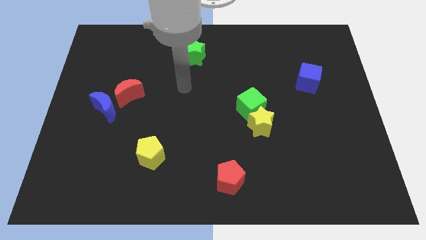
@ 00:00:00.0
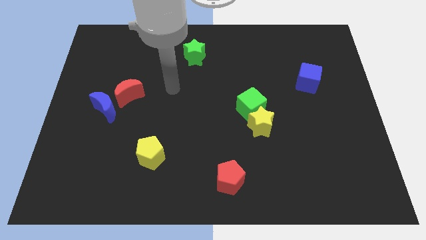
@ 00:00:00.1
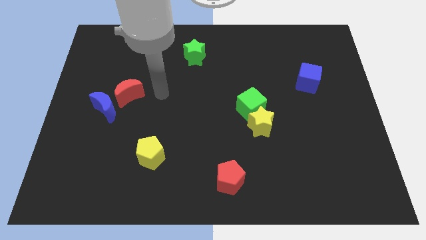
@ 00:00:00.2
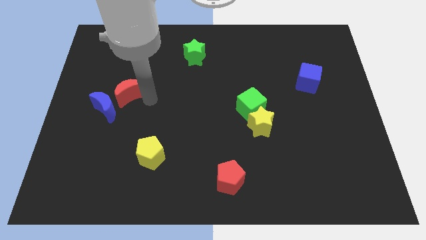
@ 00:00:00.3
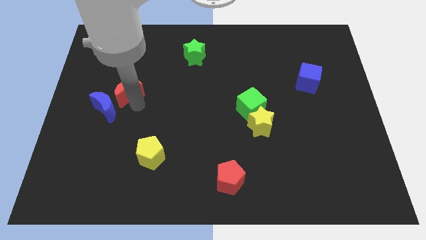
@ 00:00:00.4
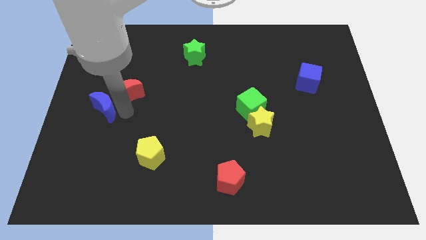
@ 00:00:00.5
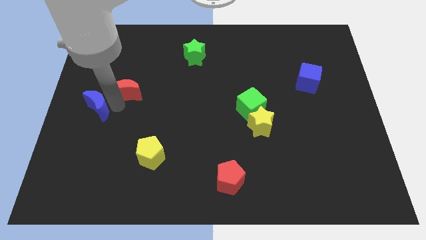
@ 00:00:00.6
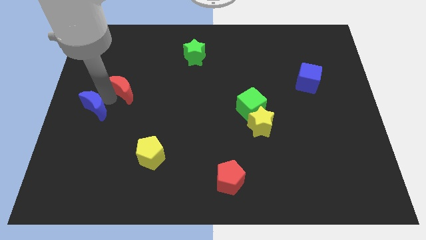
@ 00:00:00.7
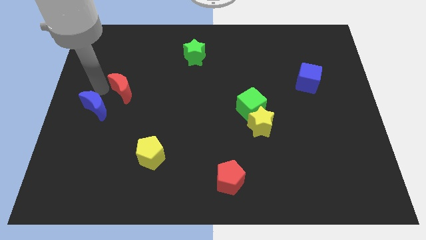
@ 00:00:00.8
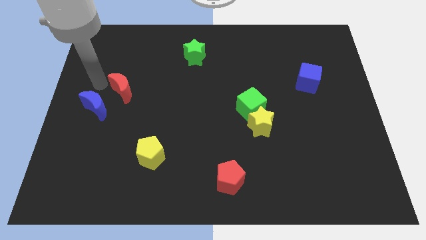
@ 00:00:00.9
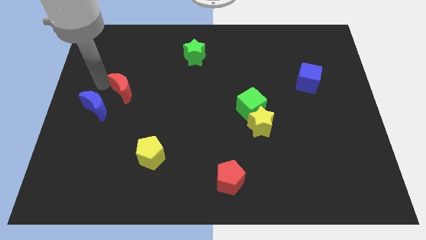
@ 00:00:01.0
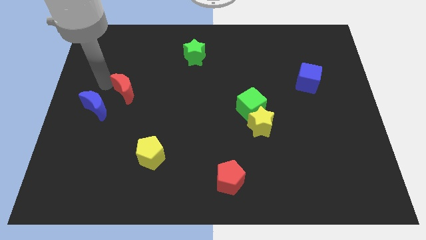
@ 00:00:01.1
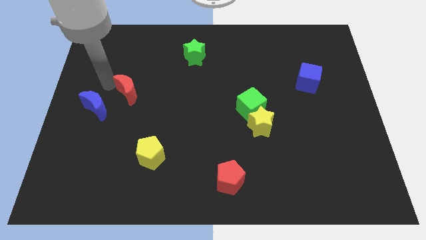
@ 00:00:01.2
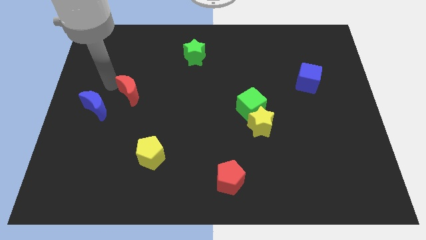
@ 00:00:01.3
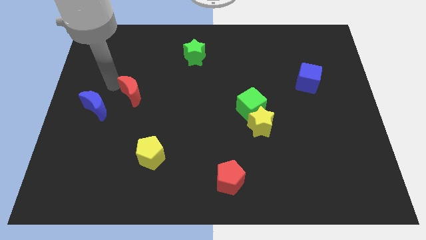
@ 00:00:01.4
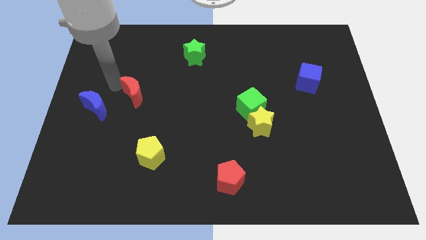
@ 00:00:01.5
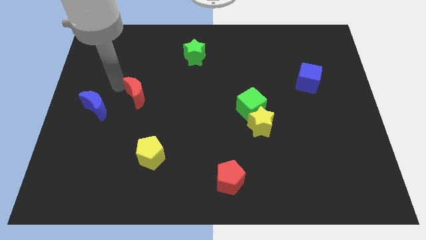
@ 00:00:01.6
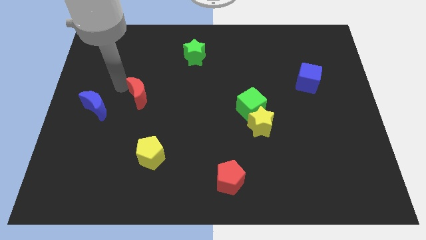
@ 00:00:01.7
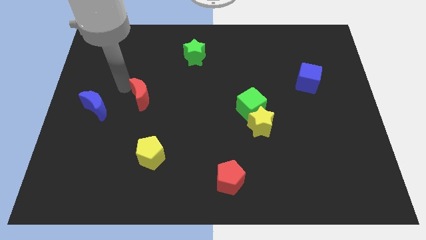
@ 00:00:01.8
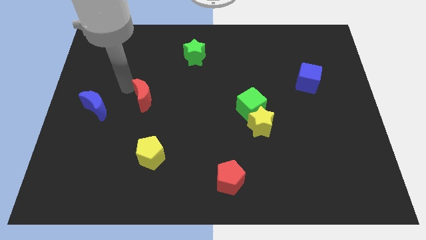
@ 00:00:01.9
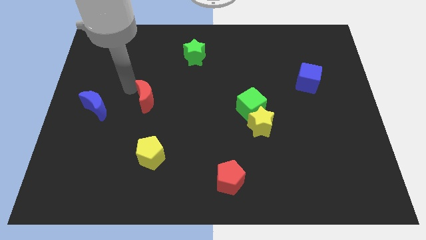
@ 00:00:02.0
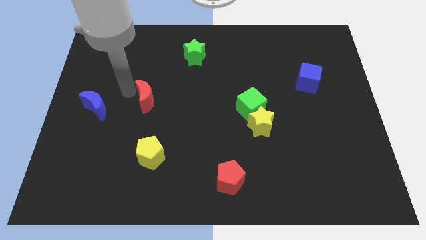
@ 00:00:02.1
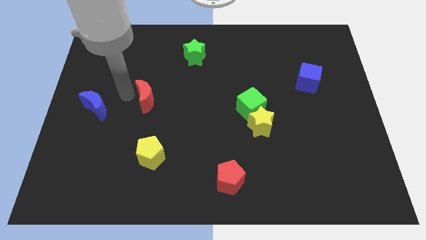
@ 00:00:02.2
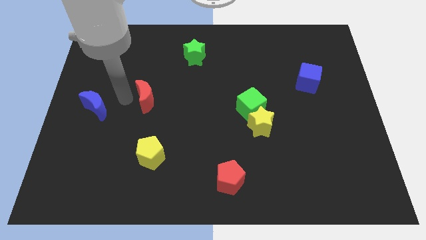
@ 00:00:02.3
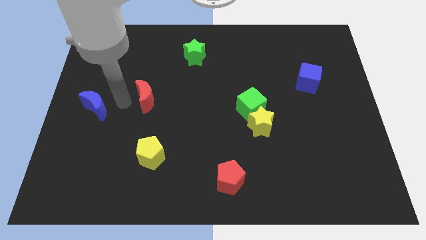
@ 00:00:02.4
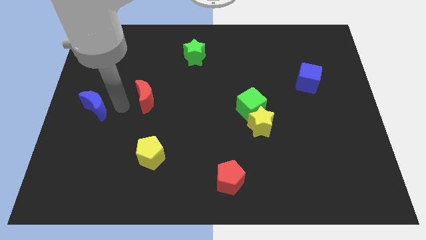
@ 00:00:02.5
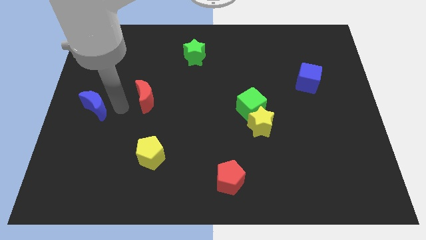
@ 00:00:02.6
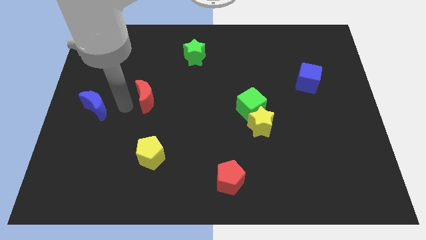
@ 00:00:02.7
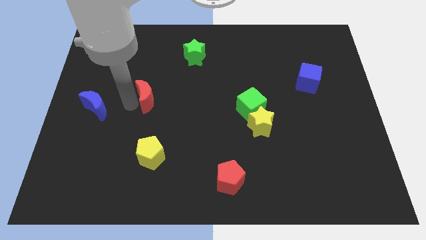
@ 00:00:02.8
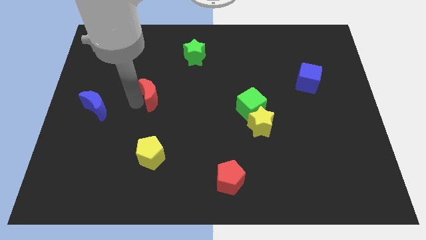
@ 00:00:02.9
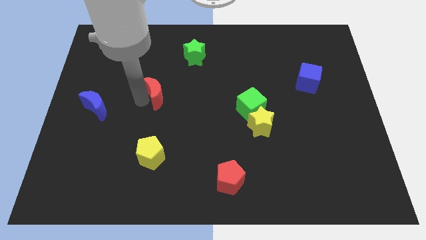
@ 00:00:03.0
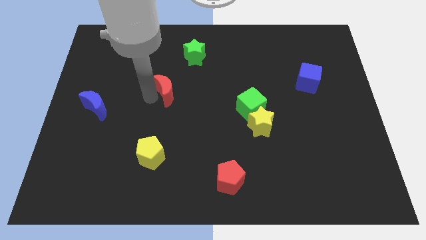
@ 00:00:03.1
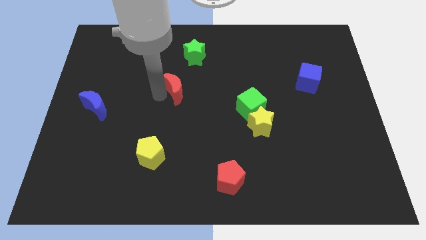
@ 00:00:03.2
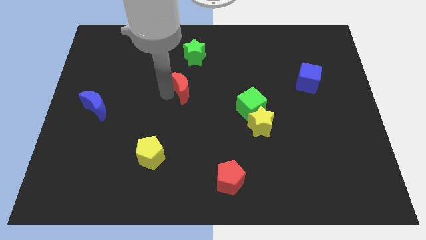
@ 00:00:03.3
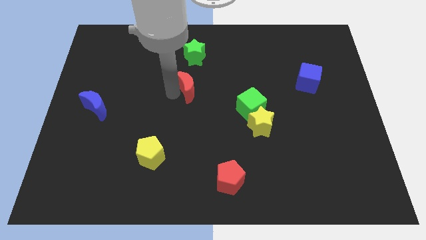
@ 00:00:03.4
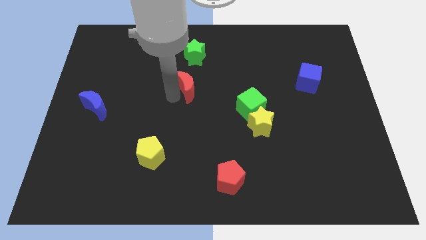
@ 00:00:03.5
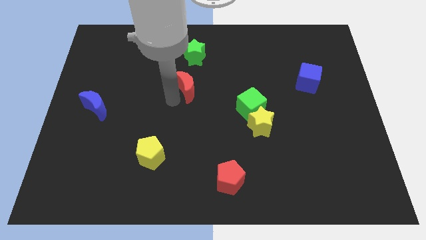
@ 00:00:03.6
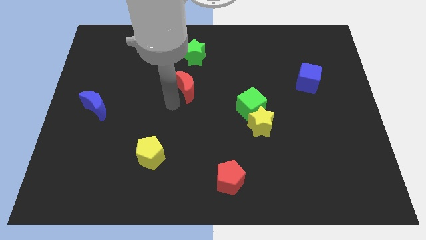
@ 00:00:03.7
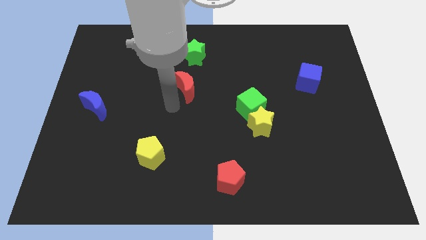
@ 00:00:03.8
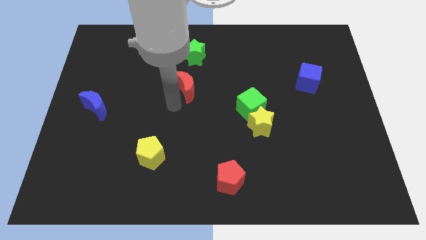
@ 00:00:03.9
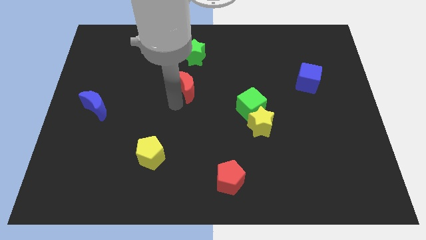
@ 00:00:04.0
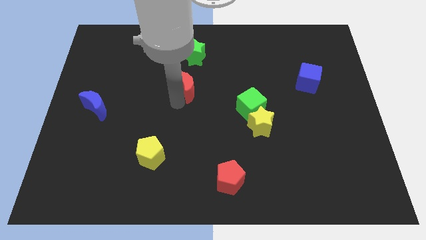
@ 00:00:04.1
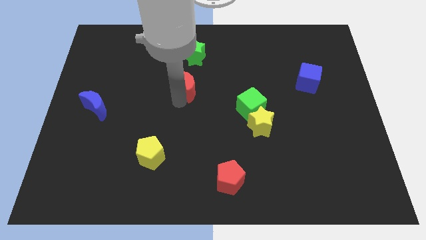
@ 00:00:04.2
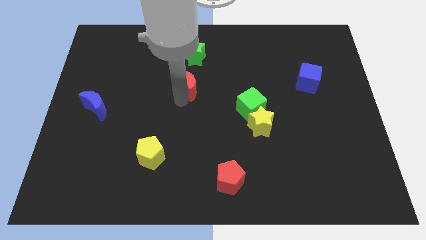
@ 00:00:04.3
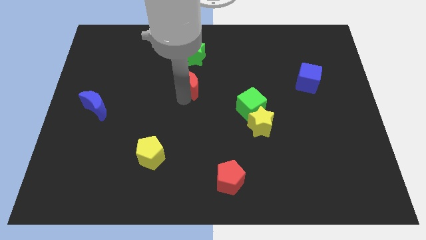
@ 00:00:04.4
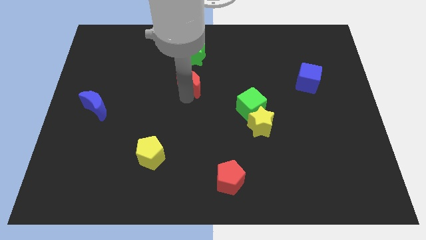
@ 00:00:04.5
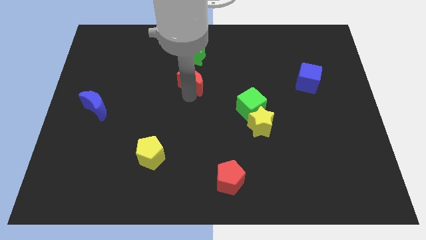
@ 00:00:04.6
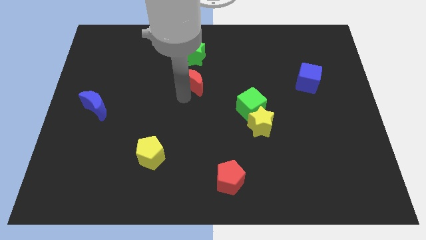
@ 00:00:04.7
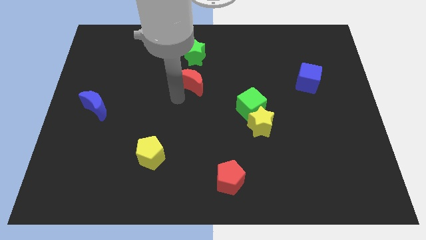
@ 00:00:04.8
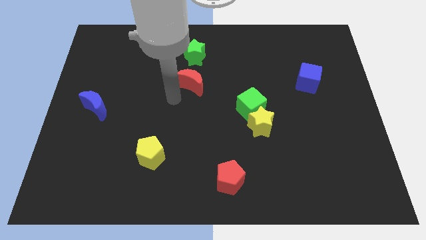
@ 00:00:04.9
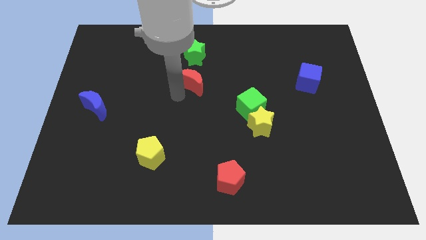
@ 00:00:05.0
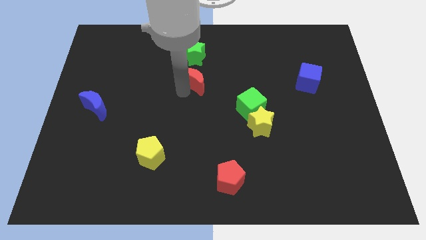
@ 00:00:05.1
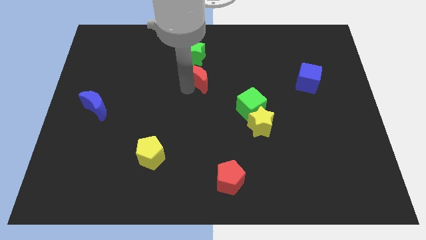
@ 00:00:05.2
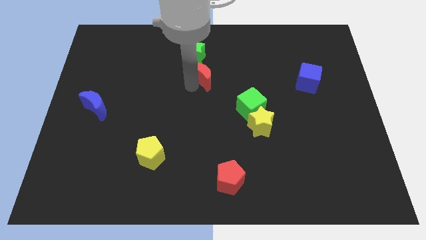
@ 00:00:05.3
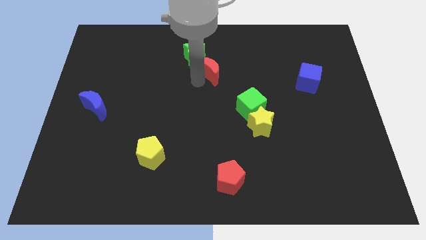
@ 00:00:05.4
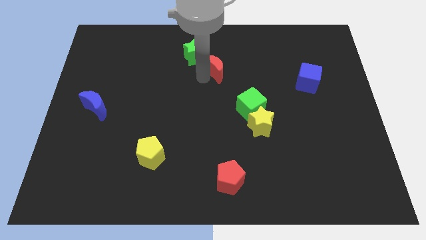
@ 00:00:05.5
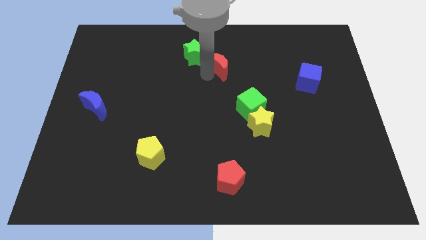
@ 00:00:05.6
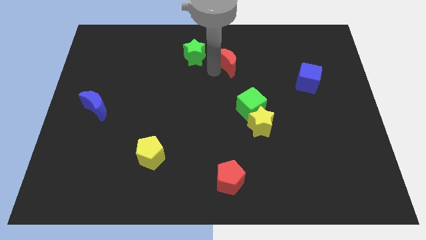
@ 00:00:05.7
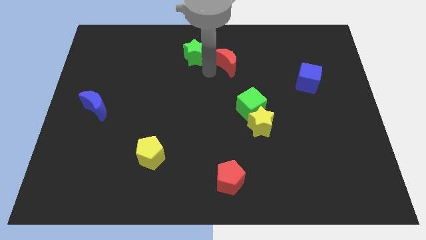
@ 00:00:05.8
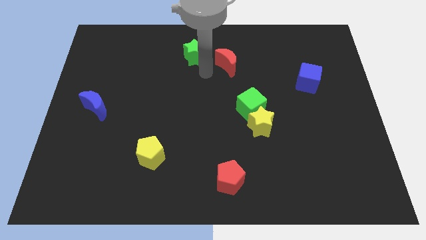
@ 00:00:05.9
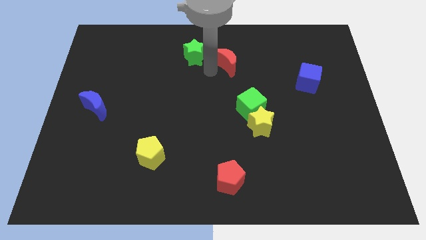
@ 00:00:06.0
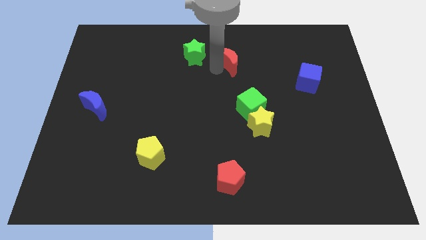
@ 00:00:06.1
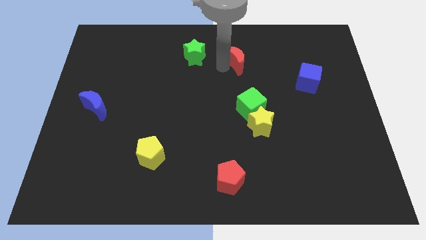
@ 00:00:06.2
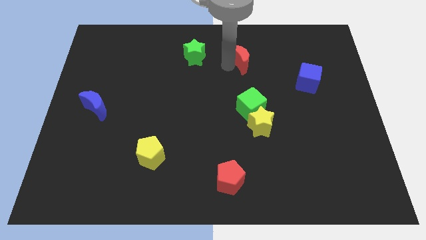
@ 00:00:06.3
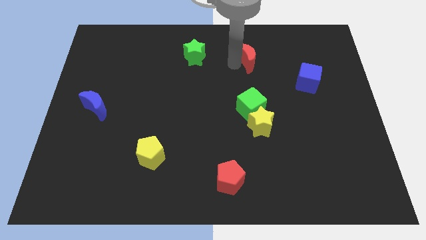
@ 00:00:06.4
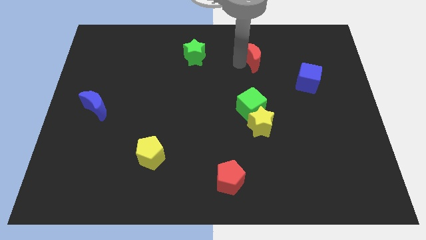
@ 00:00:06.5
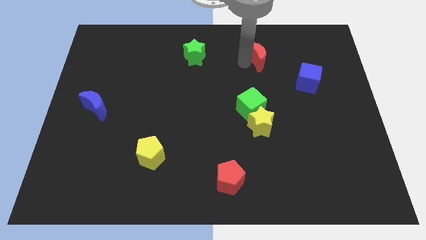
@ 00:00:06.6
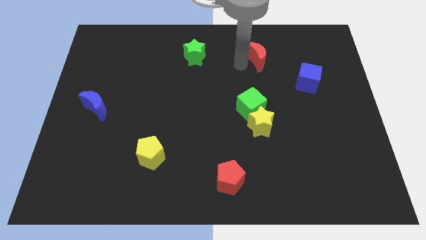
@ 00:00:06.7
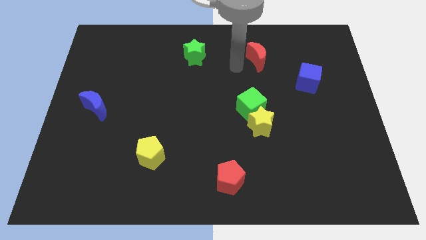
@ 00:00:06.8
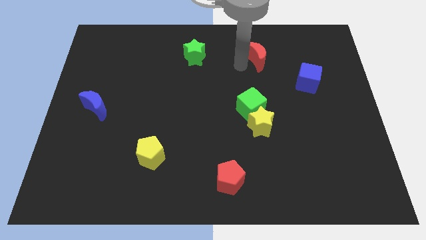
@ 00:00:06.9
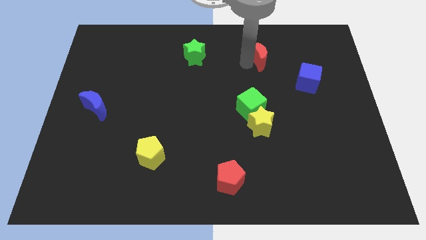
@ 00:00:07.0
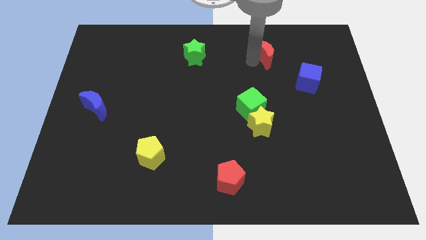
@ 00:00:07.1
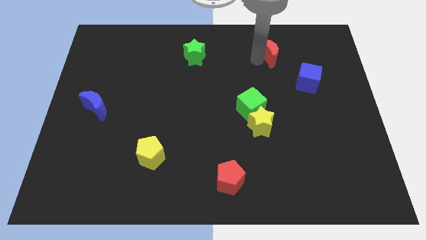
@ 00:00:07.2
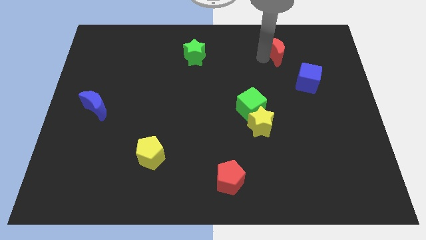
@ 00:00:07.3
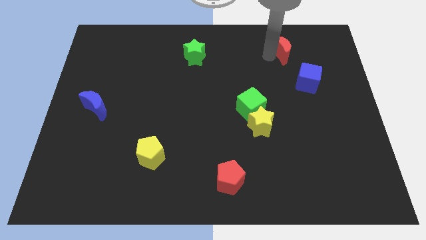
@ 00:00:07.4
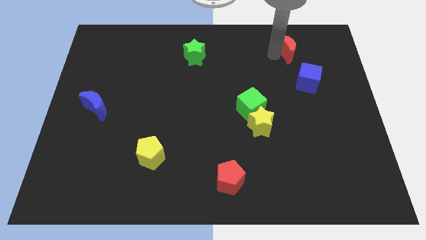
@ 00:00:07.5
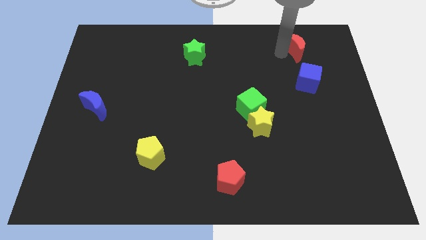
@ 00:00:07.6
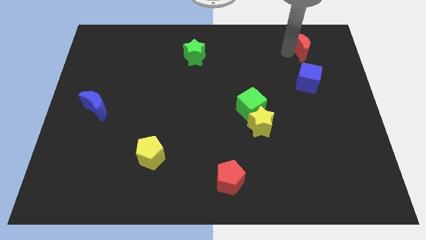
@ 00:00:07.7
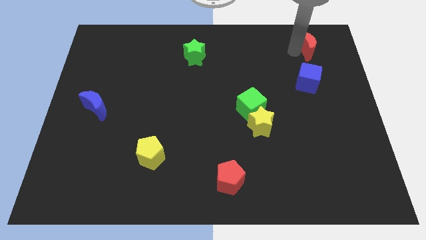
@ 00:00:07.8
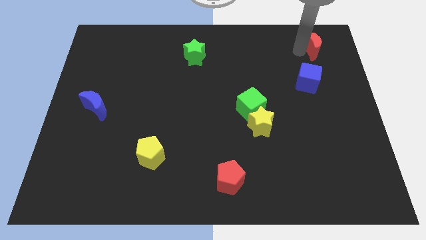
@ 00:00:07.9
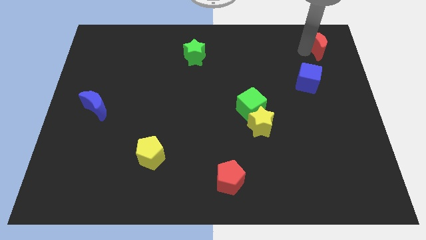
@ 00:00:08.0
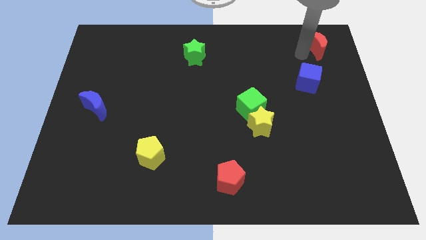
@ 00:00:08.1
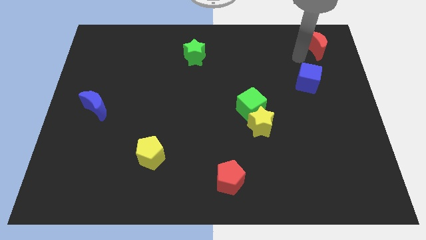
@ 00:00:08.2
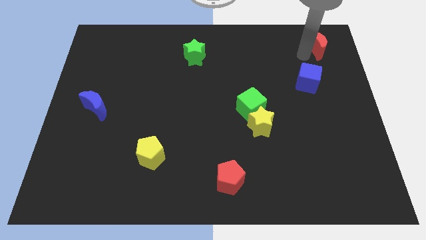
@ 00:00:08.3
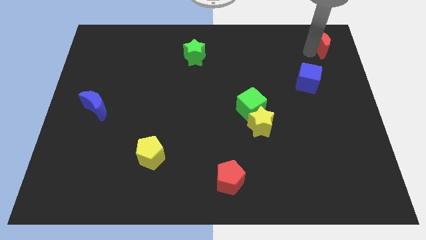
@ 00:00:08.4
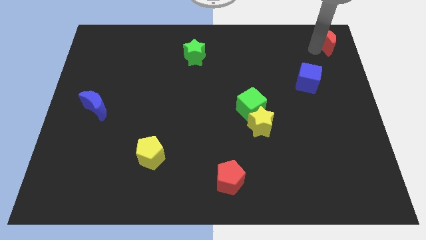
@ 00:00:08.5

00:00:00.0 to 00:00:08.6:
move the red moon to the upper right corner
